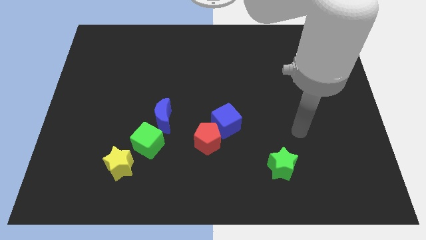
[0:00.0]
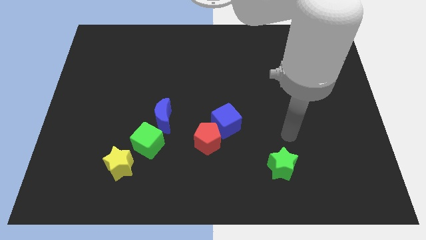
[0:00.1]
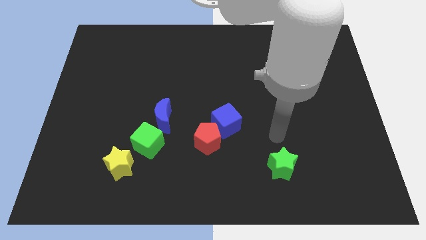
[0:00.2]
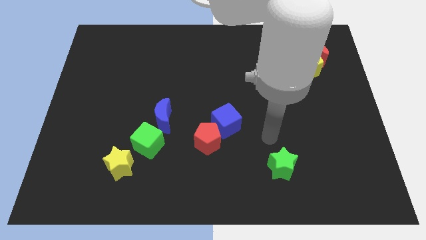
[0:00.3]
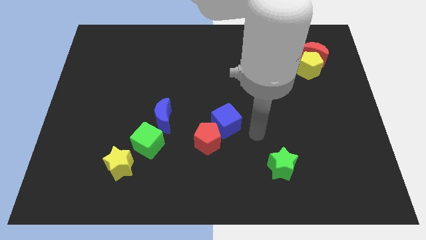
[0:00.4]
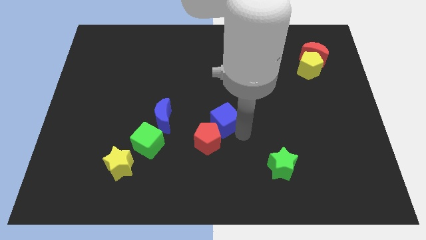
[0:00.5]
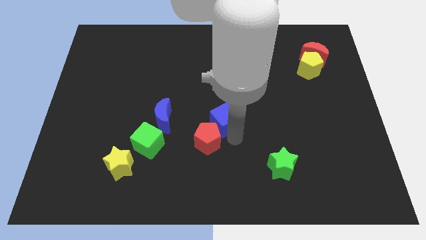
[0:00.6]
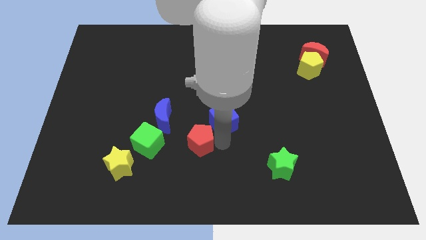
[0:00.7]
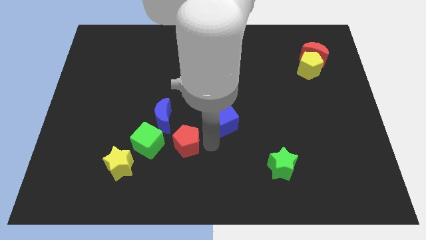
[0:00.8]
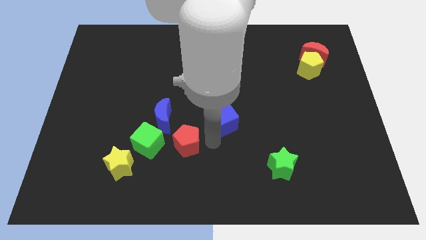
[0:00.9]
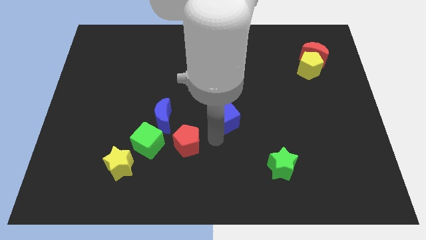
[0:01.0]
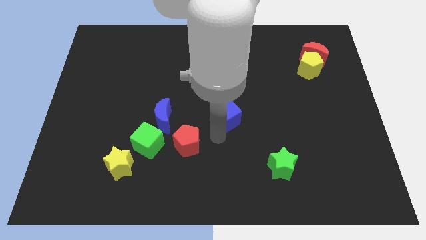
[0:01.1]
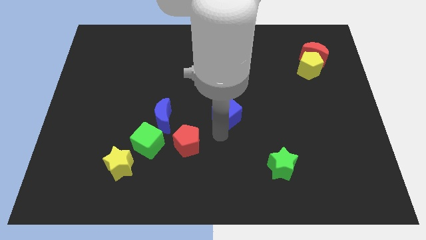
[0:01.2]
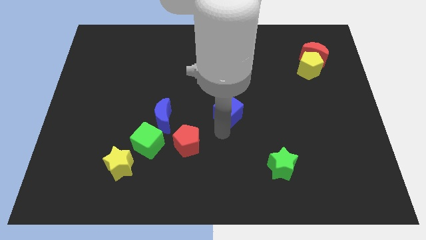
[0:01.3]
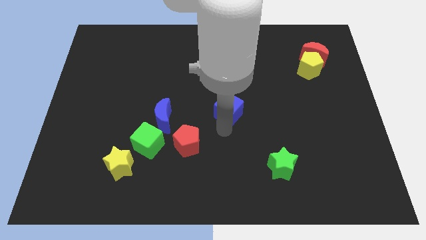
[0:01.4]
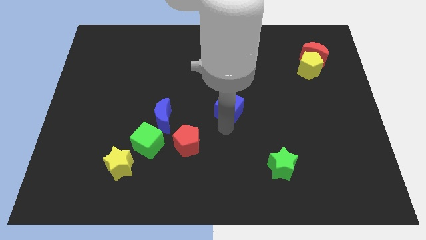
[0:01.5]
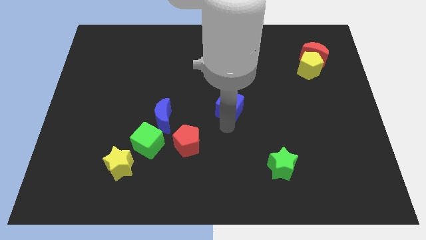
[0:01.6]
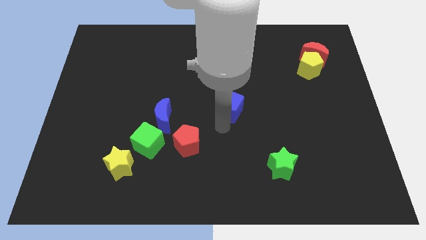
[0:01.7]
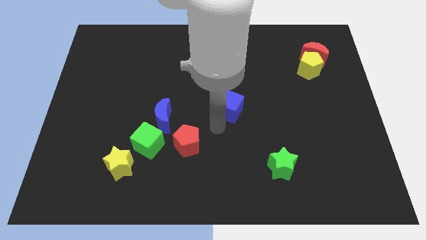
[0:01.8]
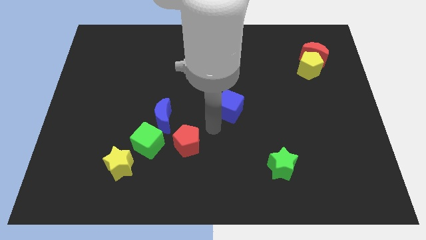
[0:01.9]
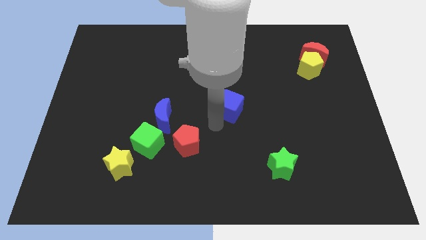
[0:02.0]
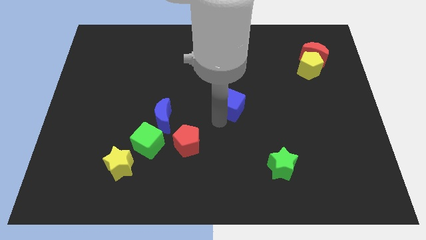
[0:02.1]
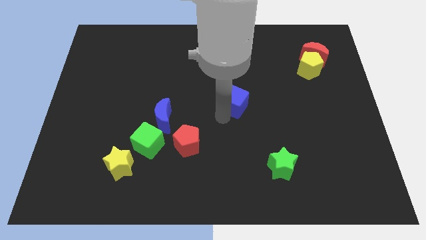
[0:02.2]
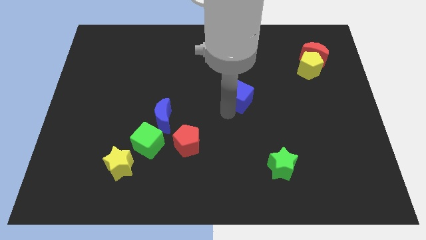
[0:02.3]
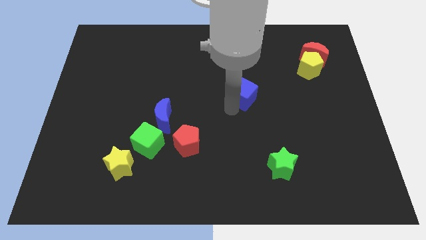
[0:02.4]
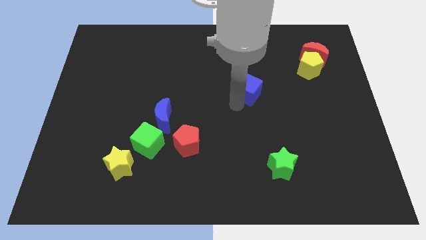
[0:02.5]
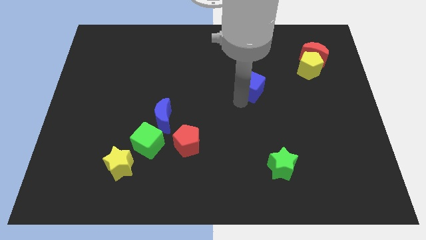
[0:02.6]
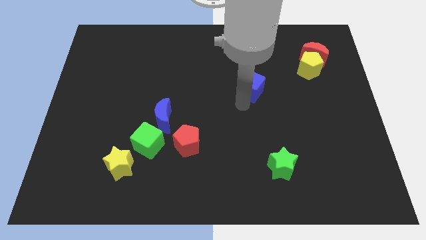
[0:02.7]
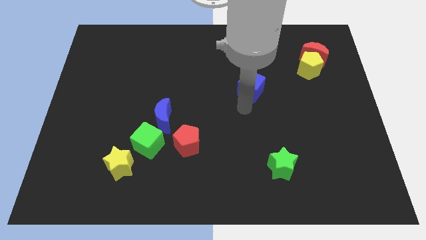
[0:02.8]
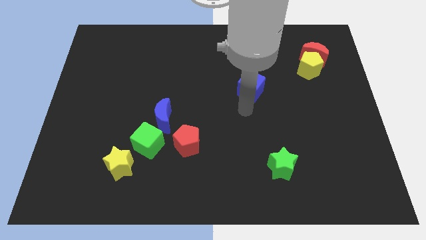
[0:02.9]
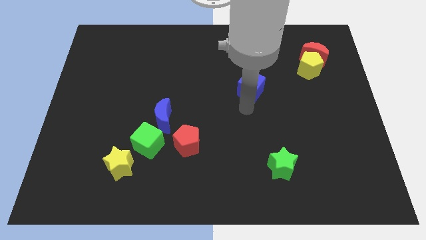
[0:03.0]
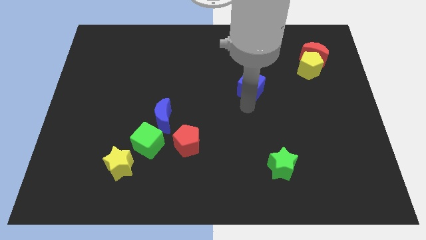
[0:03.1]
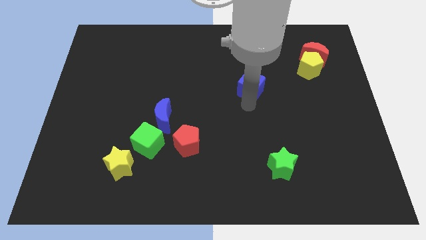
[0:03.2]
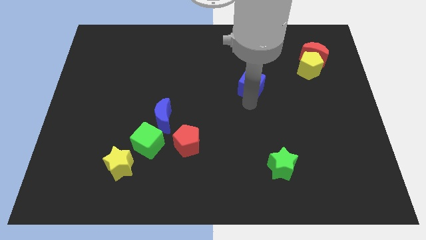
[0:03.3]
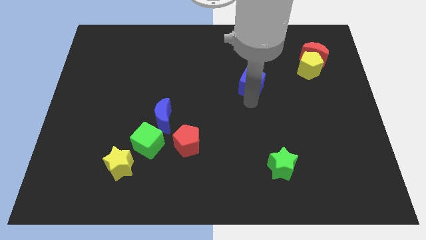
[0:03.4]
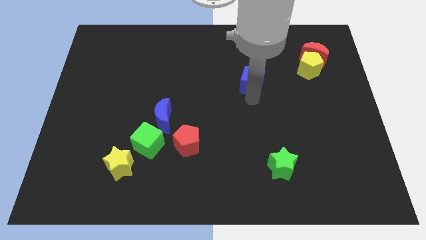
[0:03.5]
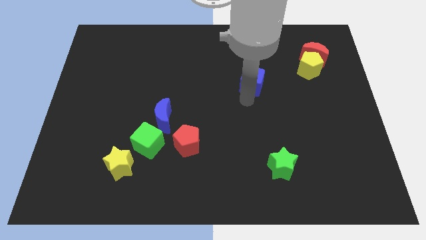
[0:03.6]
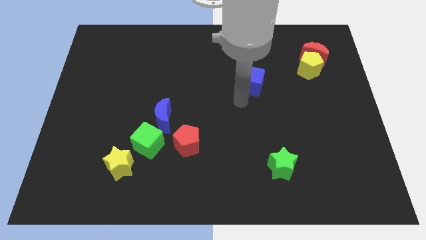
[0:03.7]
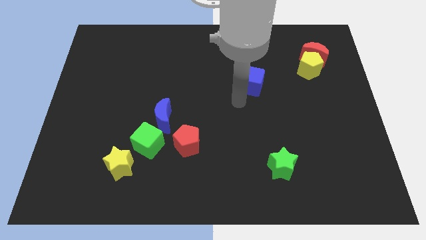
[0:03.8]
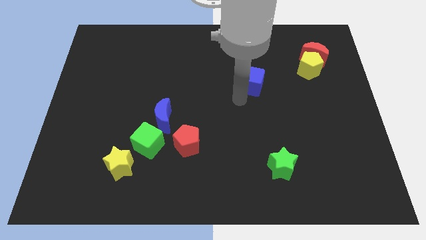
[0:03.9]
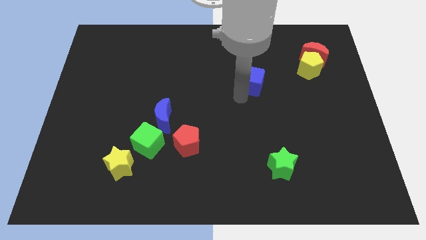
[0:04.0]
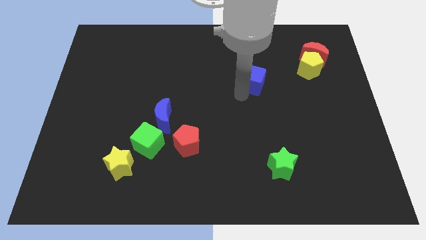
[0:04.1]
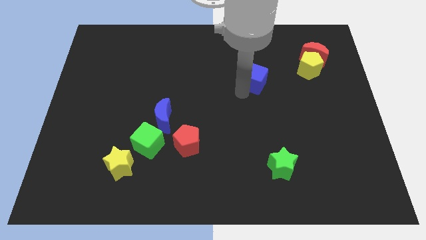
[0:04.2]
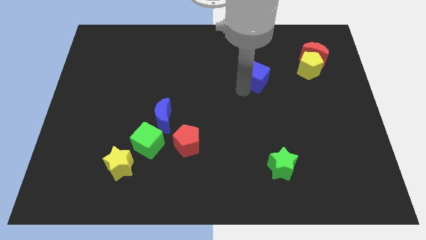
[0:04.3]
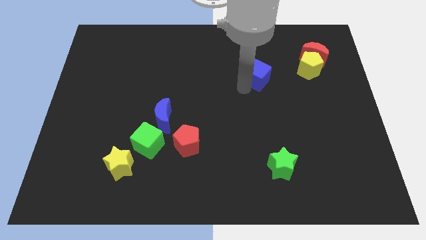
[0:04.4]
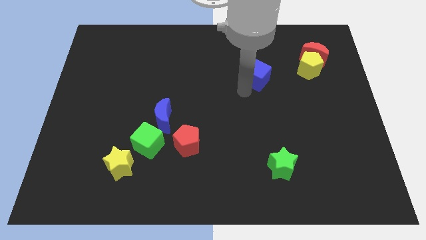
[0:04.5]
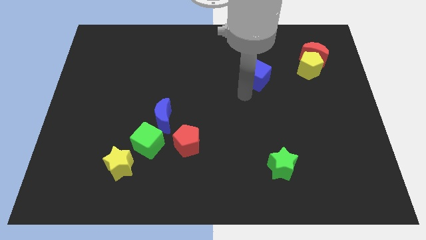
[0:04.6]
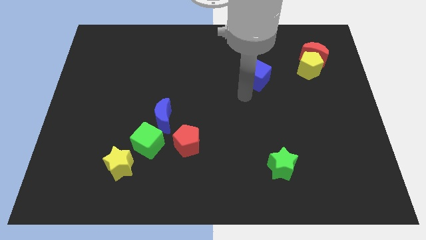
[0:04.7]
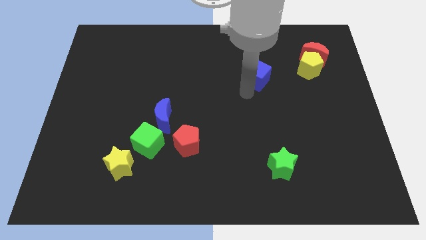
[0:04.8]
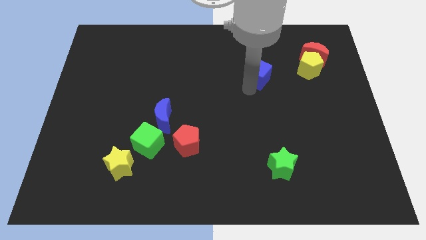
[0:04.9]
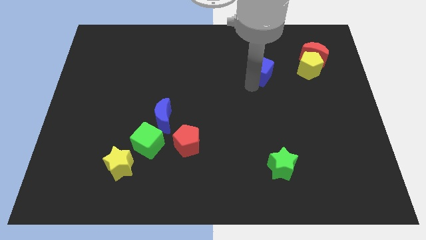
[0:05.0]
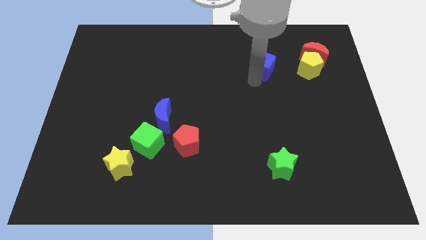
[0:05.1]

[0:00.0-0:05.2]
move the blue cube just left of the red moon

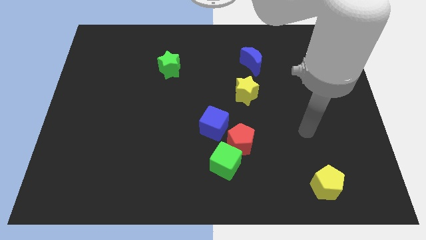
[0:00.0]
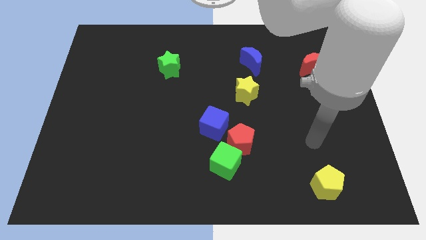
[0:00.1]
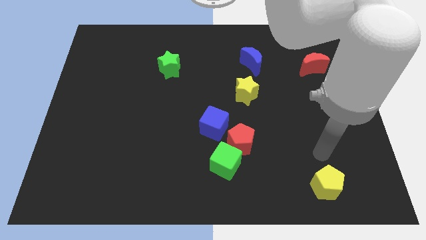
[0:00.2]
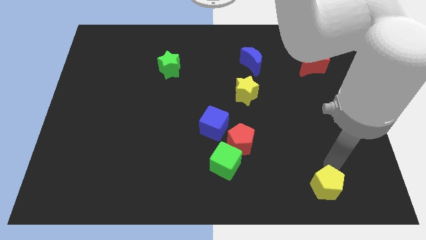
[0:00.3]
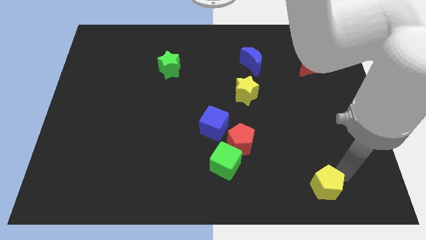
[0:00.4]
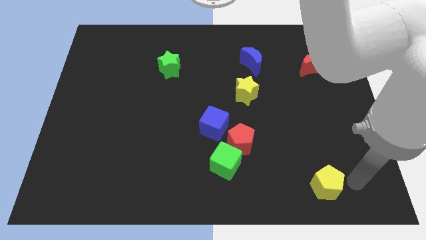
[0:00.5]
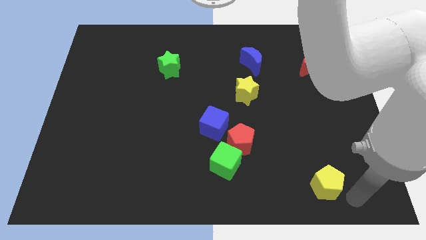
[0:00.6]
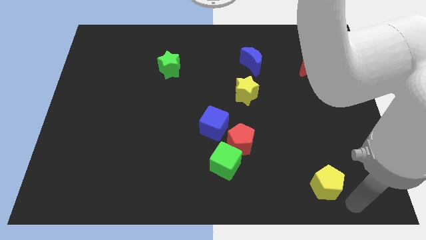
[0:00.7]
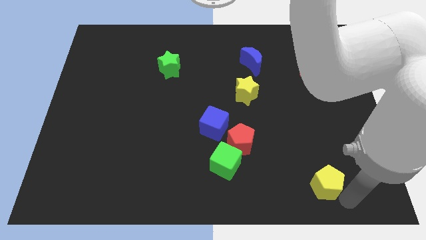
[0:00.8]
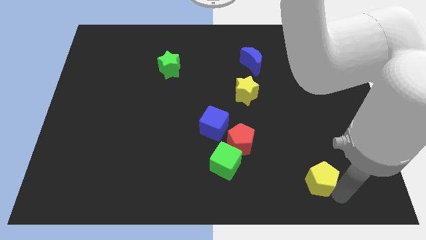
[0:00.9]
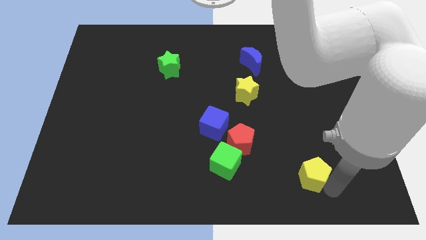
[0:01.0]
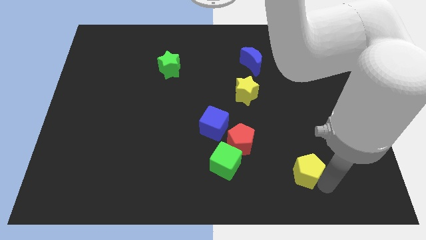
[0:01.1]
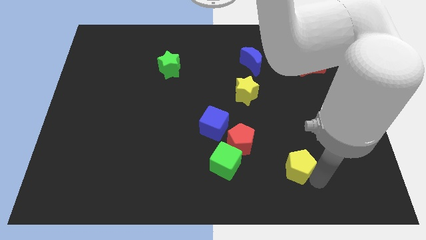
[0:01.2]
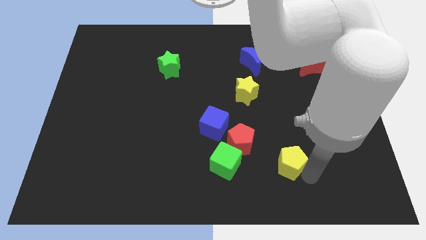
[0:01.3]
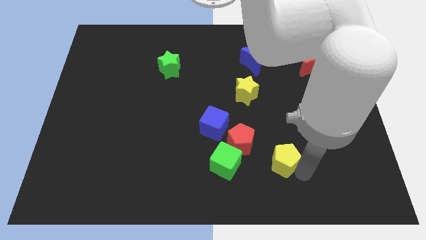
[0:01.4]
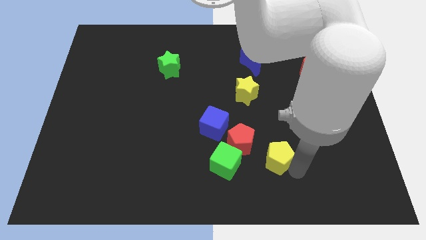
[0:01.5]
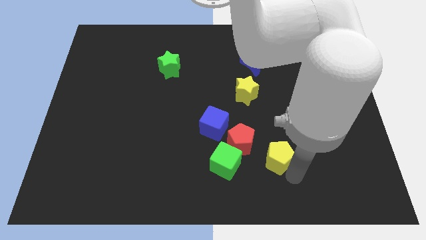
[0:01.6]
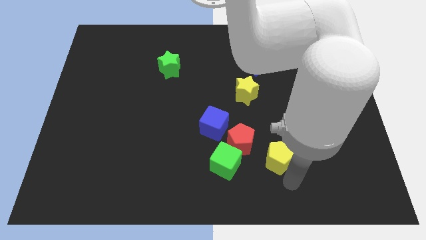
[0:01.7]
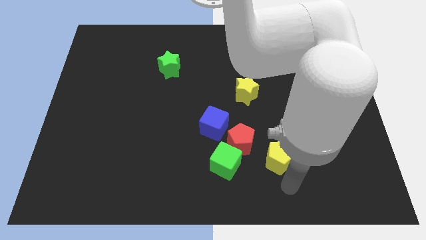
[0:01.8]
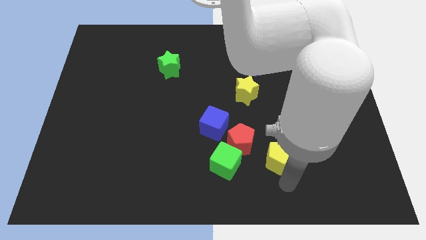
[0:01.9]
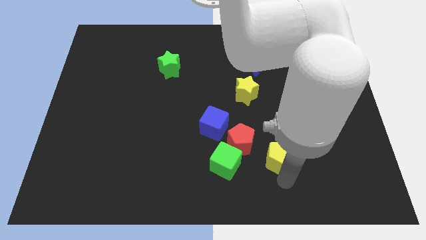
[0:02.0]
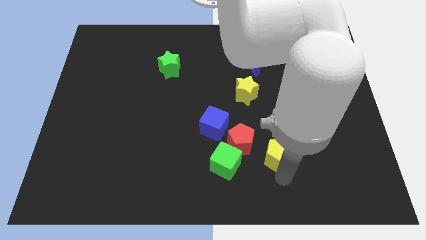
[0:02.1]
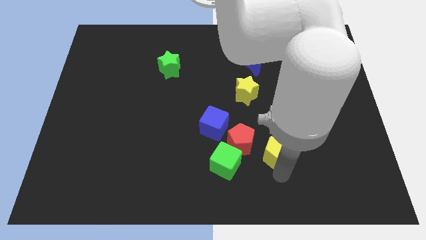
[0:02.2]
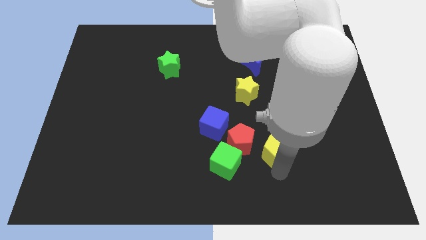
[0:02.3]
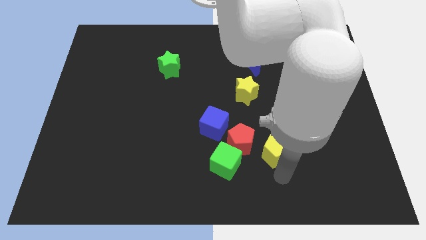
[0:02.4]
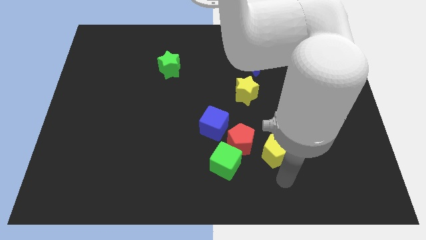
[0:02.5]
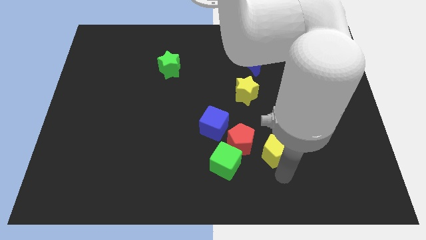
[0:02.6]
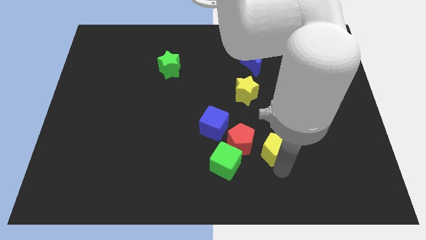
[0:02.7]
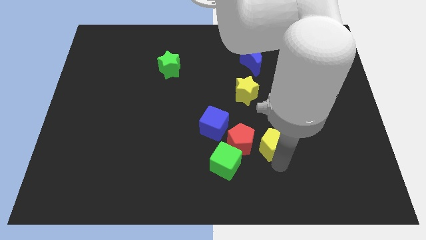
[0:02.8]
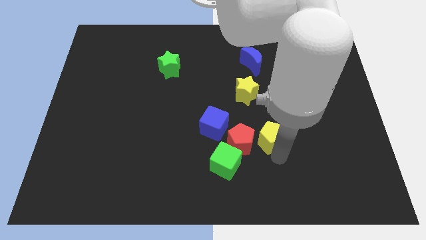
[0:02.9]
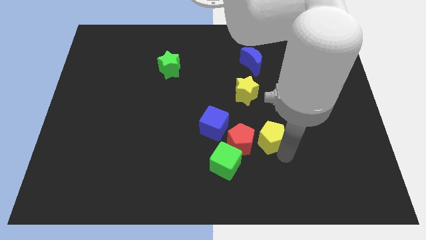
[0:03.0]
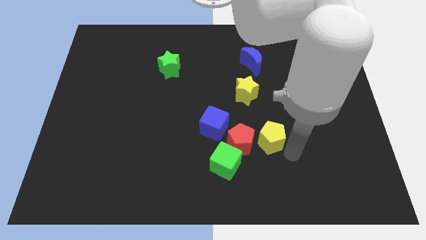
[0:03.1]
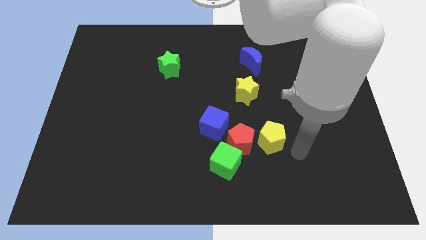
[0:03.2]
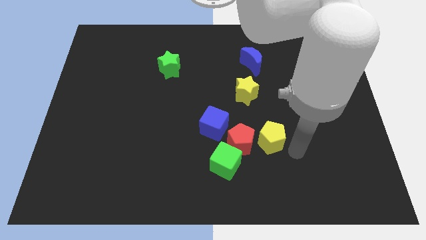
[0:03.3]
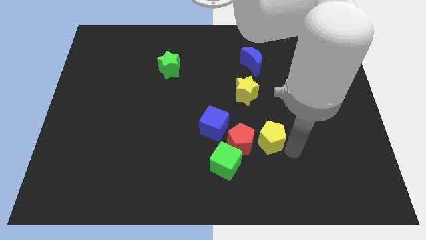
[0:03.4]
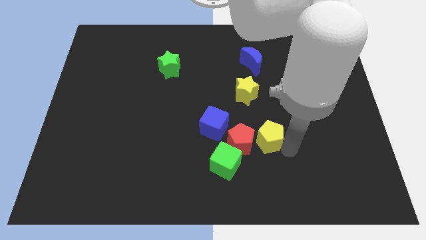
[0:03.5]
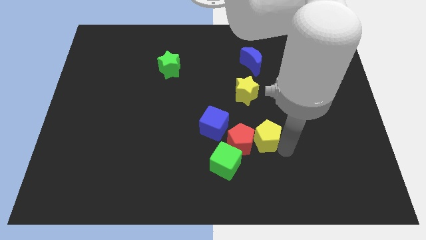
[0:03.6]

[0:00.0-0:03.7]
move the yellow pentagon to the bottom of the yellow star
